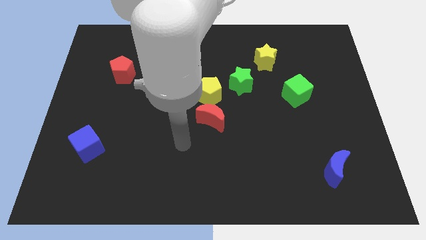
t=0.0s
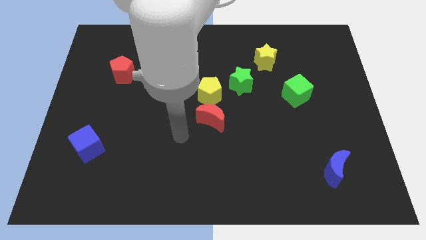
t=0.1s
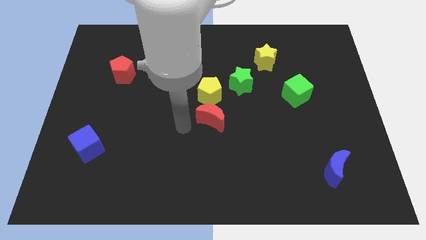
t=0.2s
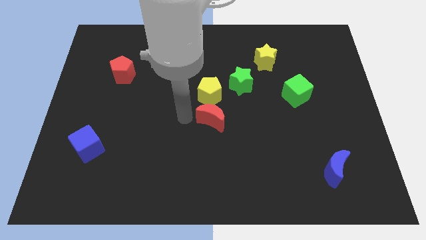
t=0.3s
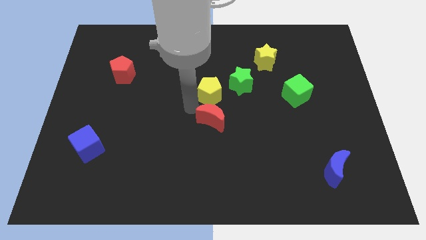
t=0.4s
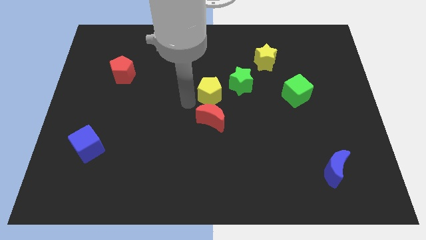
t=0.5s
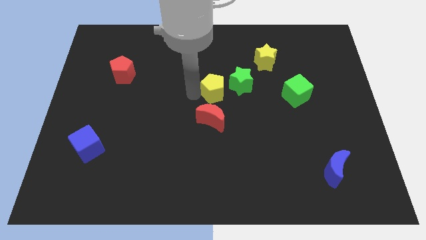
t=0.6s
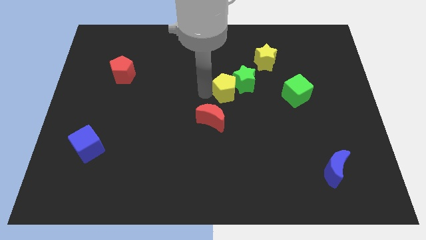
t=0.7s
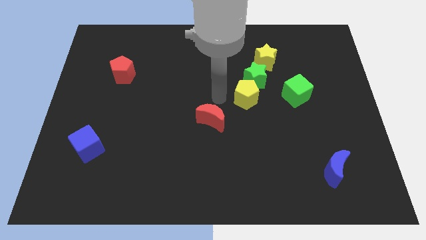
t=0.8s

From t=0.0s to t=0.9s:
pull the red moon apart from the yellow pentagon

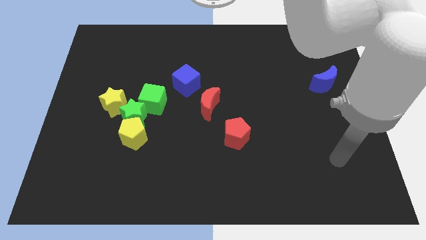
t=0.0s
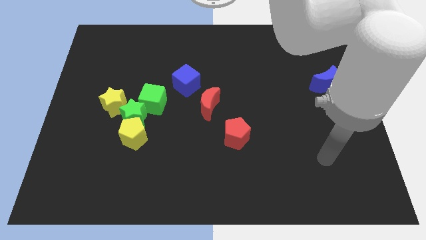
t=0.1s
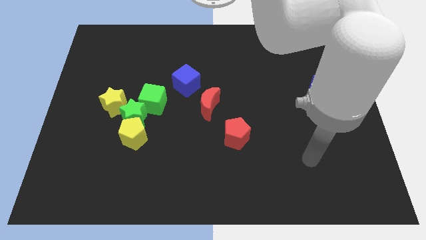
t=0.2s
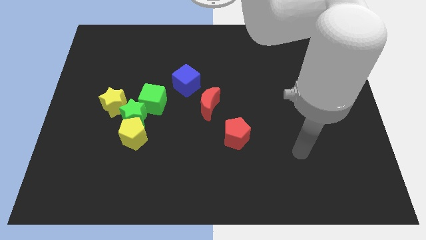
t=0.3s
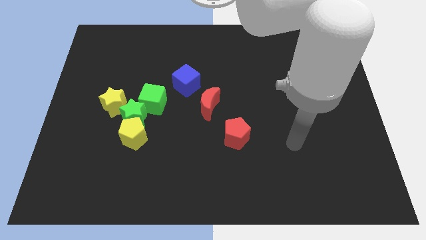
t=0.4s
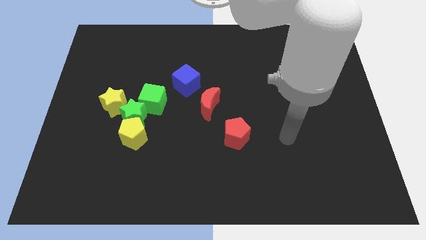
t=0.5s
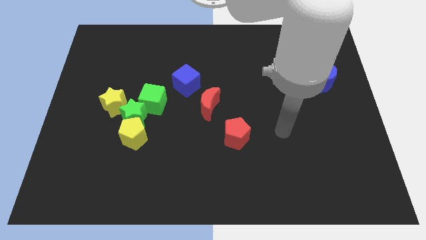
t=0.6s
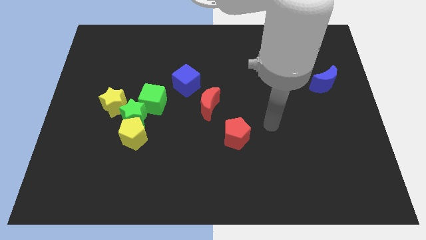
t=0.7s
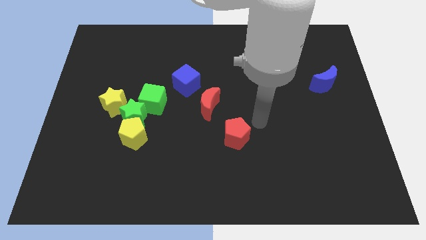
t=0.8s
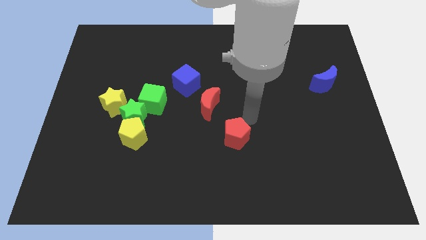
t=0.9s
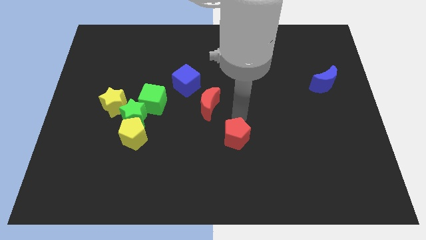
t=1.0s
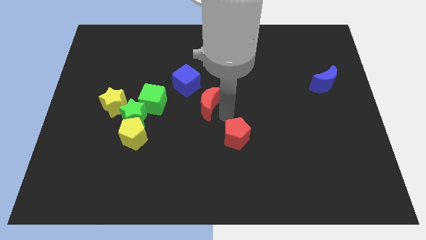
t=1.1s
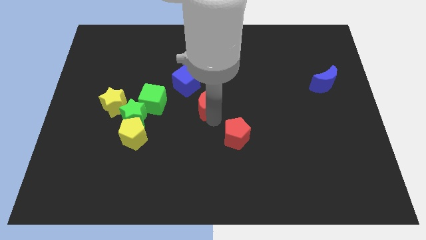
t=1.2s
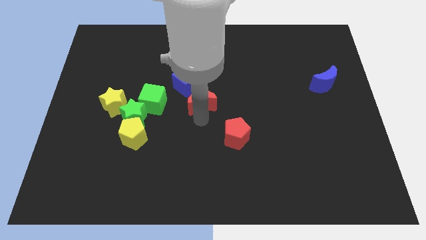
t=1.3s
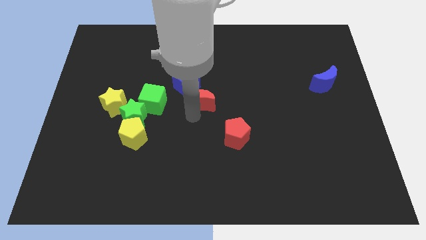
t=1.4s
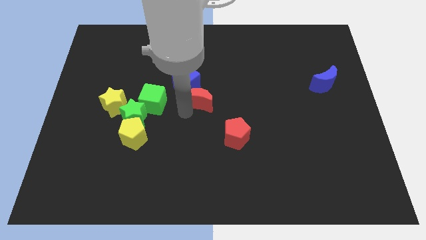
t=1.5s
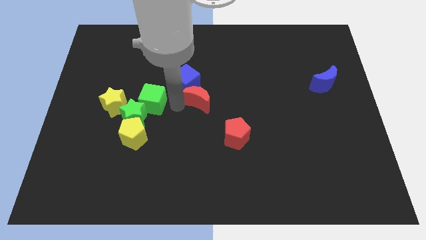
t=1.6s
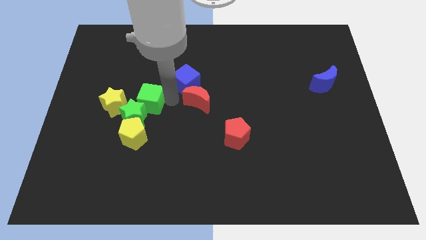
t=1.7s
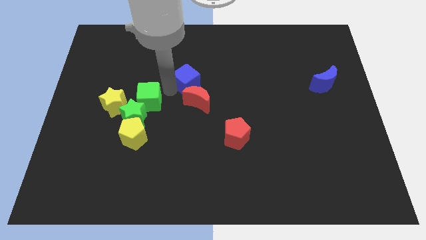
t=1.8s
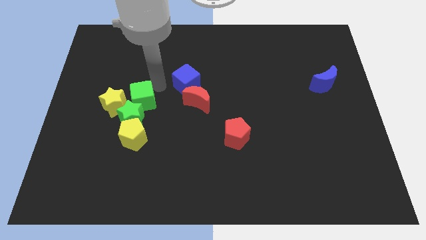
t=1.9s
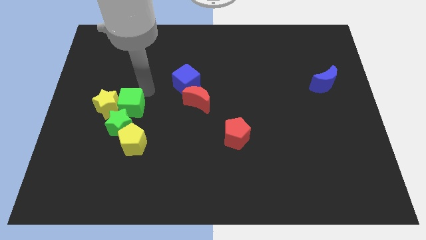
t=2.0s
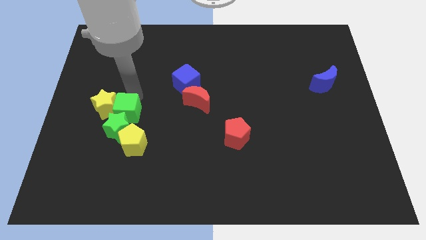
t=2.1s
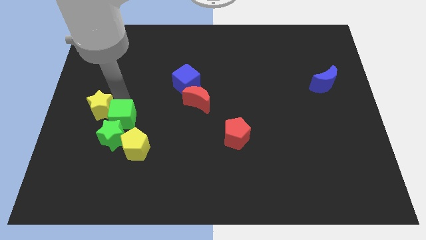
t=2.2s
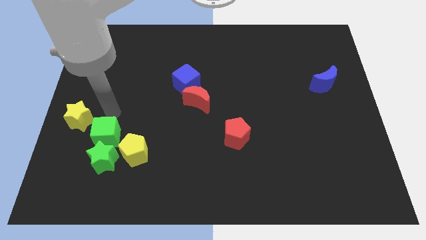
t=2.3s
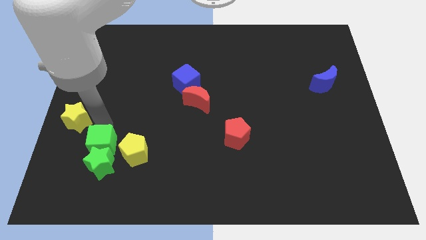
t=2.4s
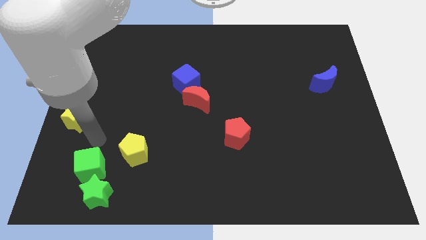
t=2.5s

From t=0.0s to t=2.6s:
move the green star away from the yellow pentagon, green cube, and yellow star

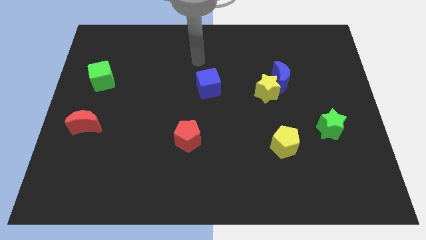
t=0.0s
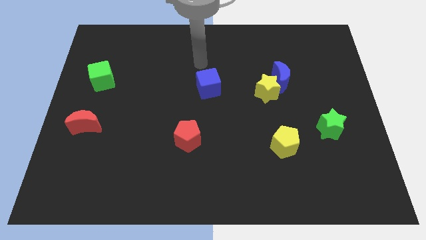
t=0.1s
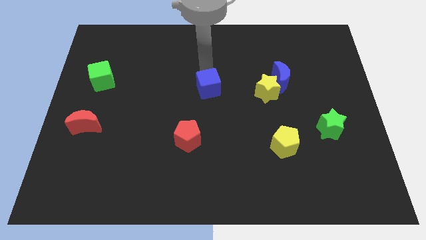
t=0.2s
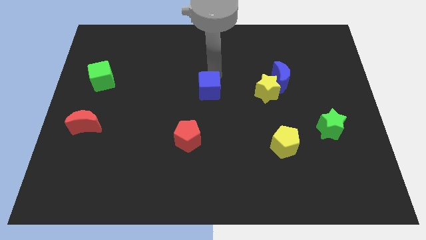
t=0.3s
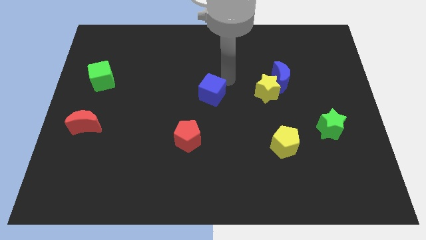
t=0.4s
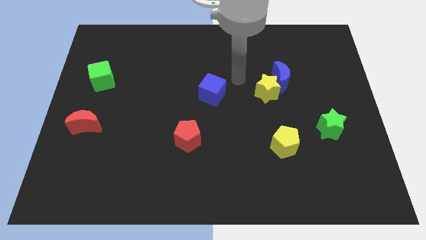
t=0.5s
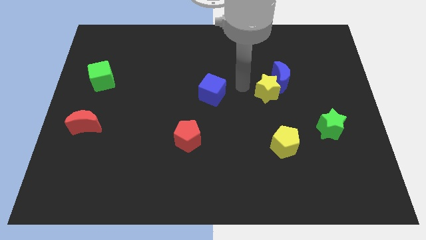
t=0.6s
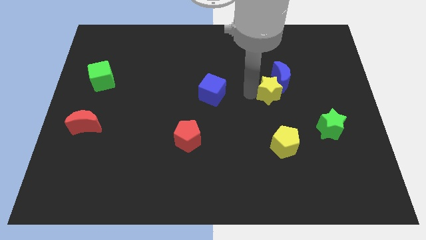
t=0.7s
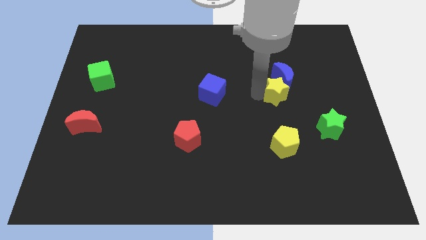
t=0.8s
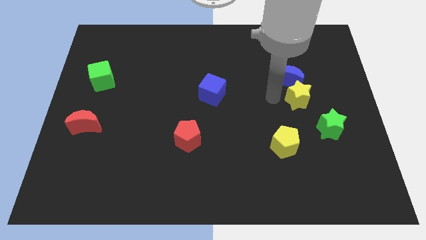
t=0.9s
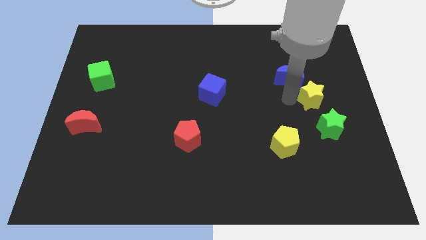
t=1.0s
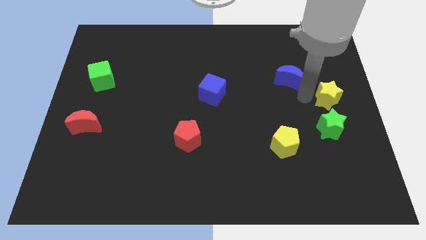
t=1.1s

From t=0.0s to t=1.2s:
separate the blue moon from the yellow star

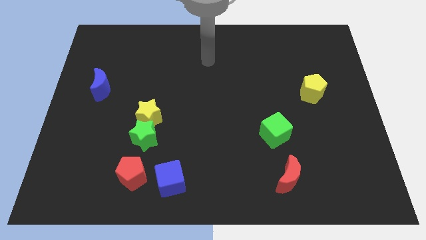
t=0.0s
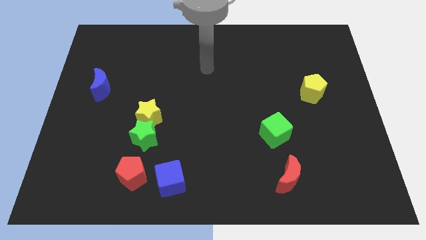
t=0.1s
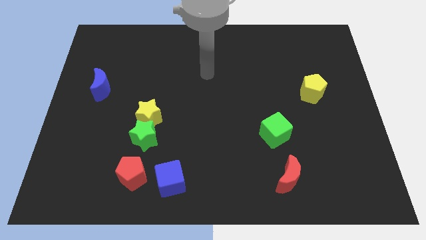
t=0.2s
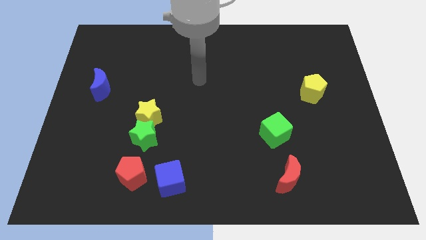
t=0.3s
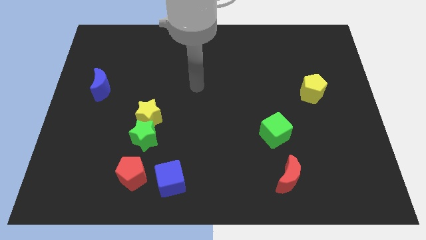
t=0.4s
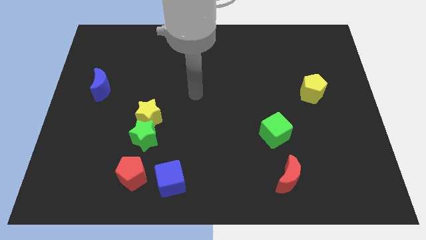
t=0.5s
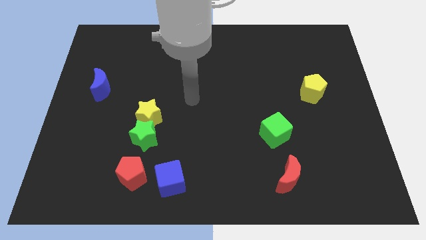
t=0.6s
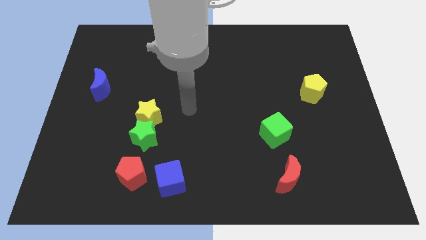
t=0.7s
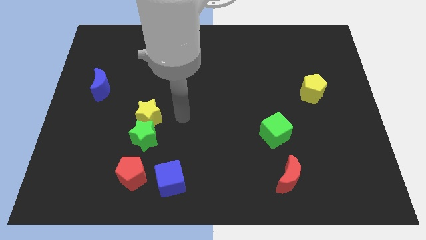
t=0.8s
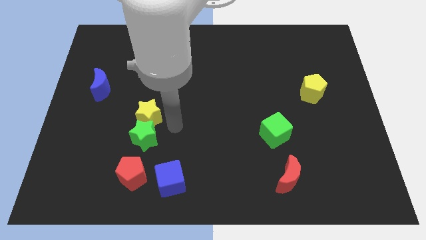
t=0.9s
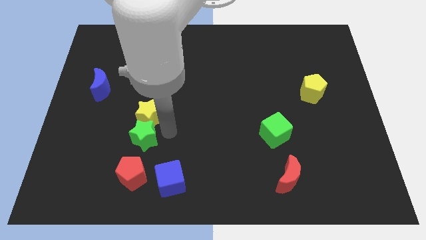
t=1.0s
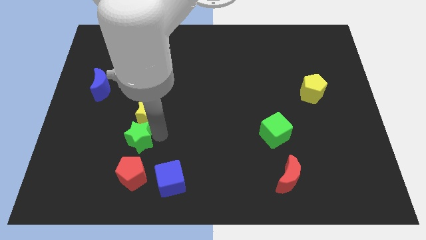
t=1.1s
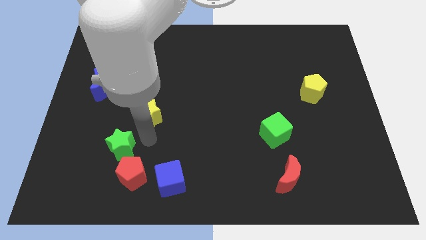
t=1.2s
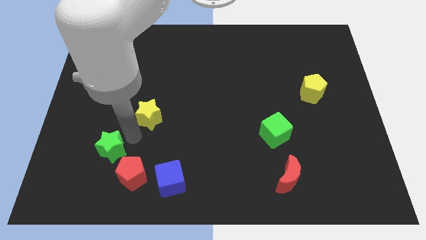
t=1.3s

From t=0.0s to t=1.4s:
pull the yellow star apart from the green star

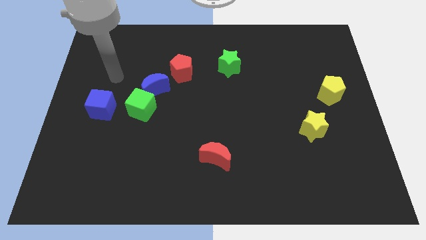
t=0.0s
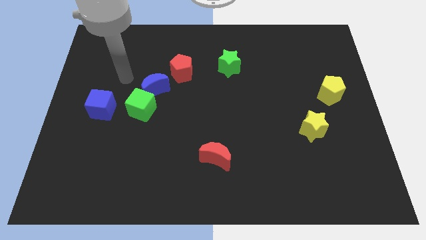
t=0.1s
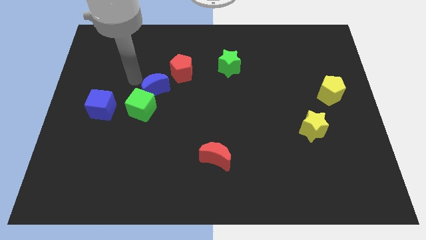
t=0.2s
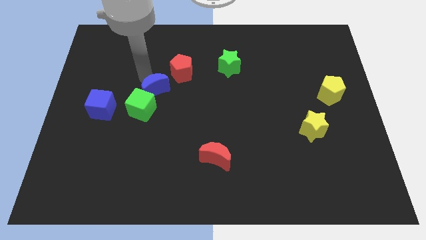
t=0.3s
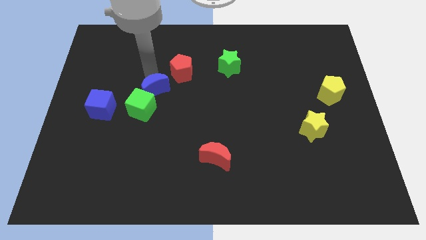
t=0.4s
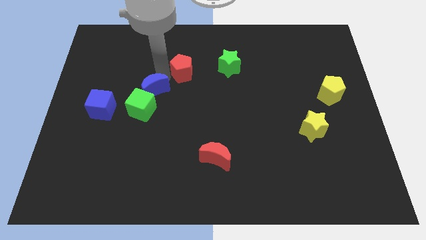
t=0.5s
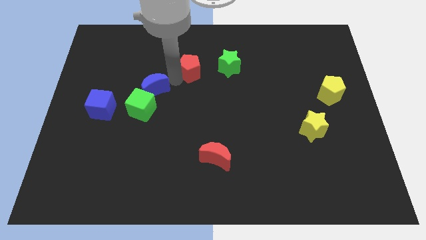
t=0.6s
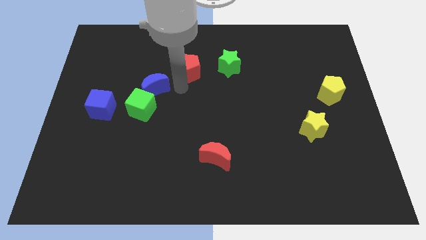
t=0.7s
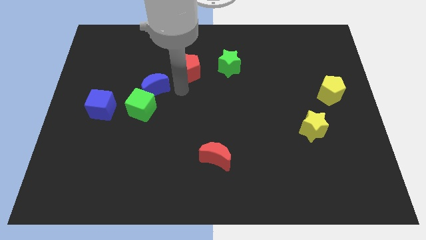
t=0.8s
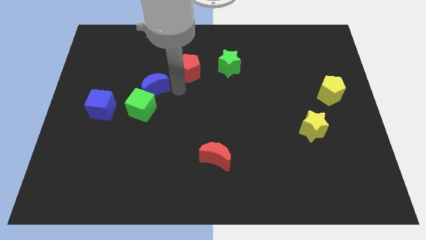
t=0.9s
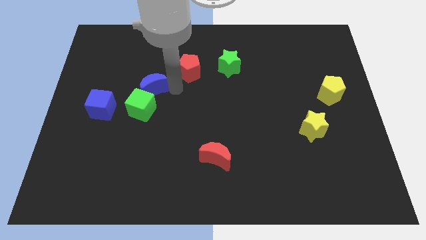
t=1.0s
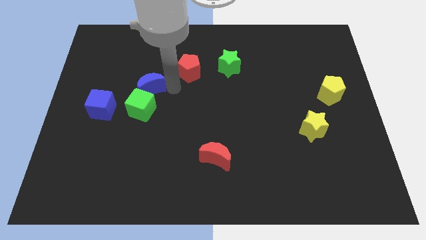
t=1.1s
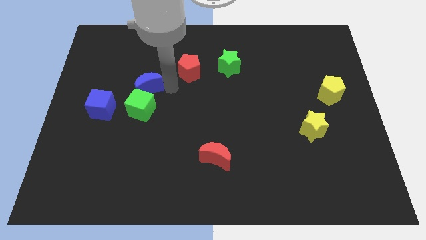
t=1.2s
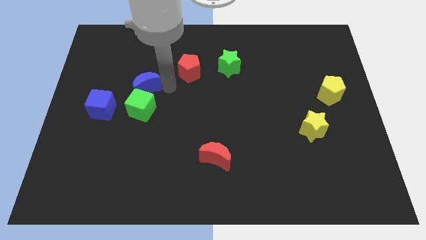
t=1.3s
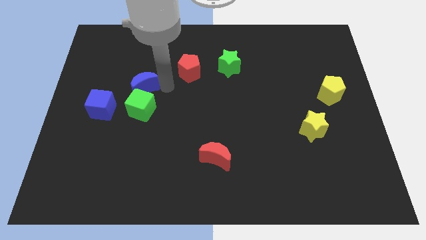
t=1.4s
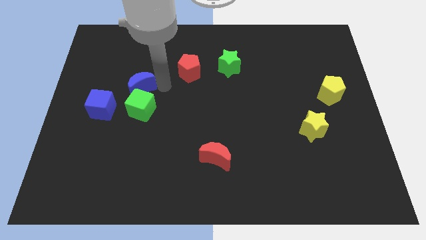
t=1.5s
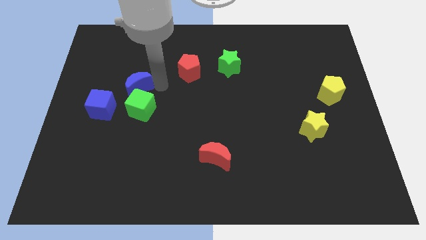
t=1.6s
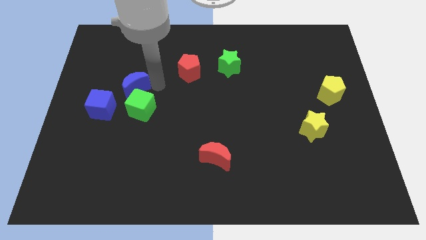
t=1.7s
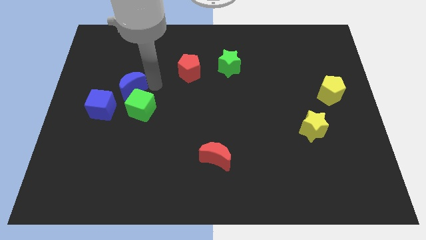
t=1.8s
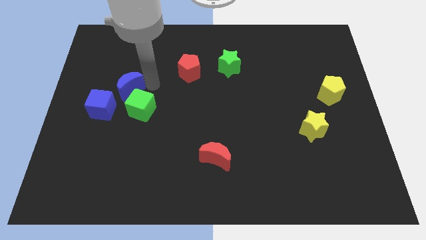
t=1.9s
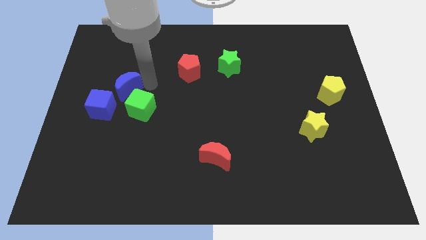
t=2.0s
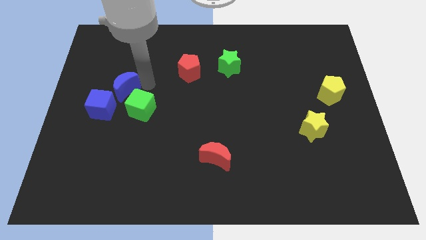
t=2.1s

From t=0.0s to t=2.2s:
move the blue moon away from the green cube and red pentagon

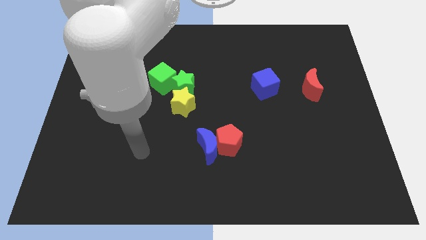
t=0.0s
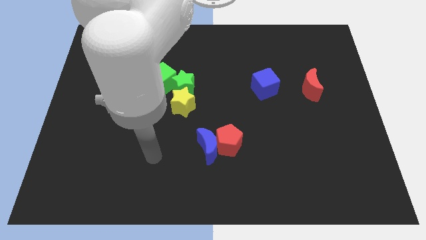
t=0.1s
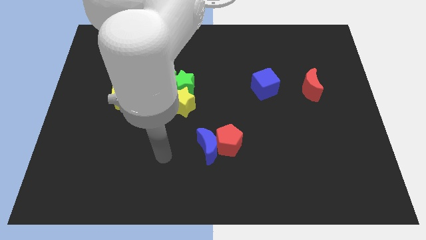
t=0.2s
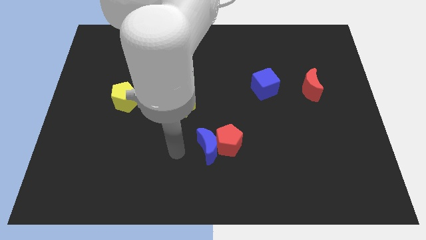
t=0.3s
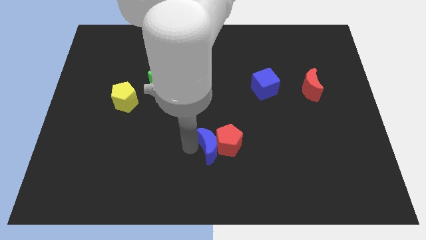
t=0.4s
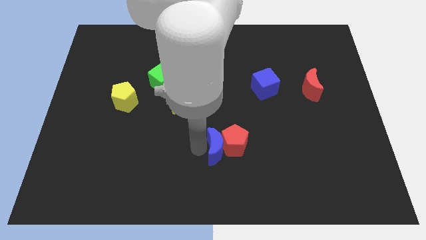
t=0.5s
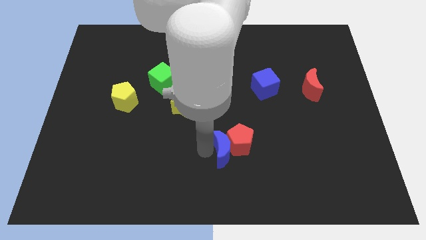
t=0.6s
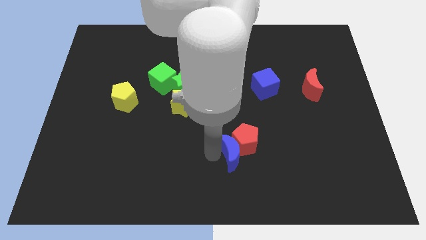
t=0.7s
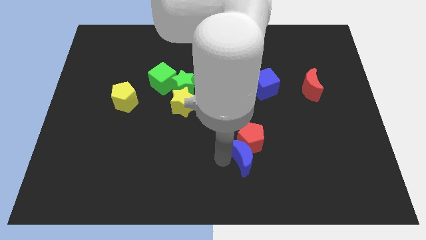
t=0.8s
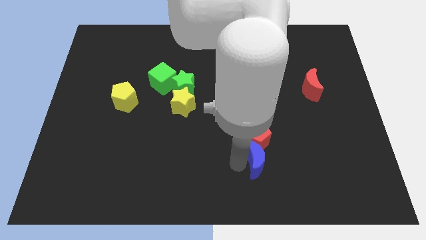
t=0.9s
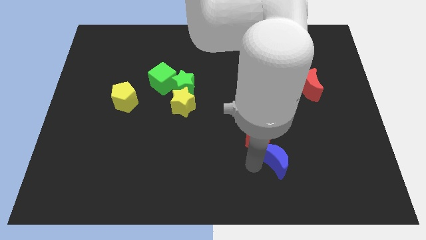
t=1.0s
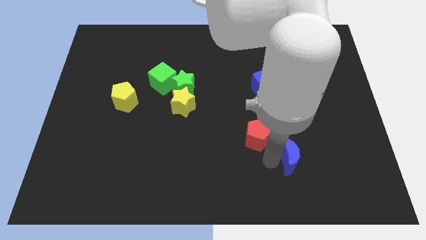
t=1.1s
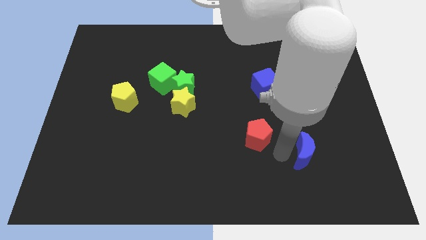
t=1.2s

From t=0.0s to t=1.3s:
separate the red pentagon from the blue moon
